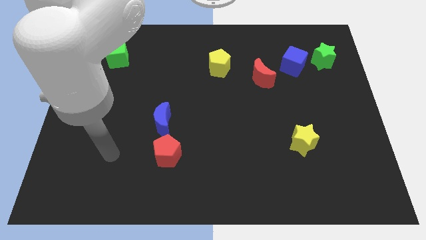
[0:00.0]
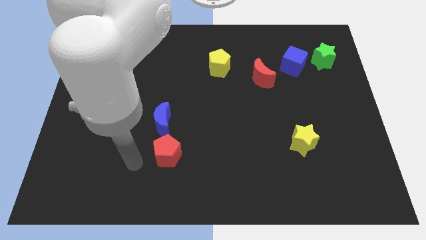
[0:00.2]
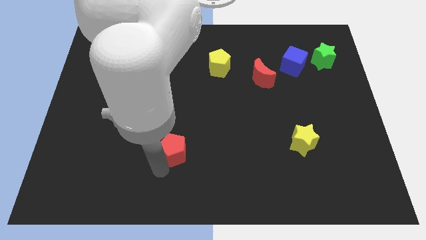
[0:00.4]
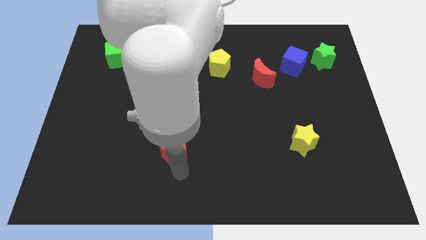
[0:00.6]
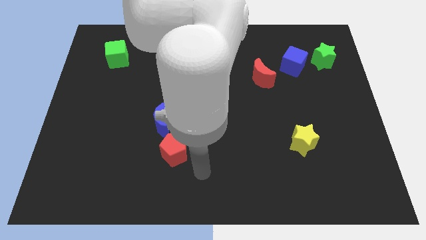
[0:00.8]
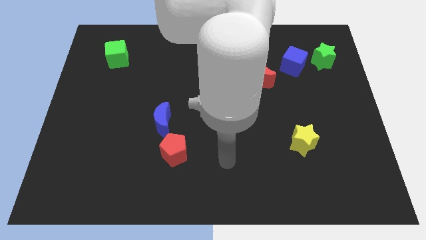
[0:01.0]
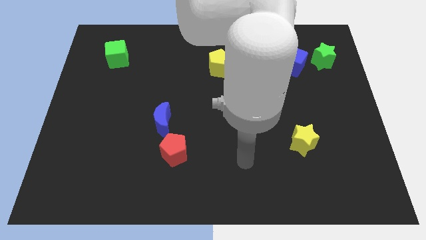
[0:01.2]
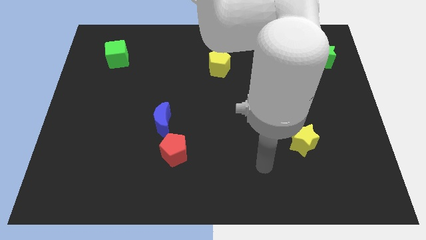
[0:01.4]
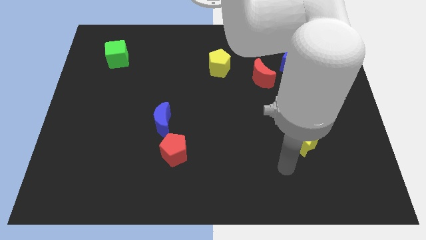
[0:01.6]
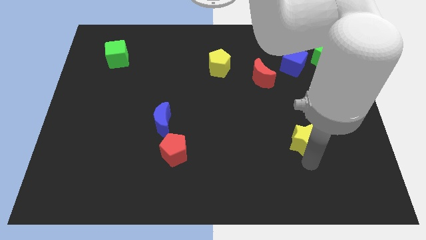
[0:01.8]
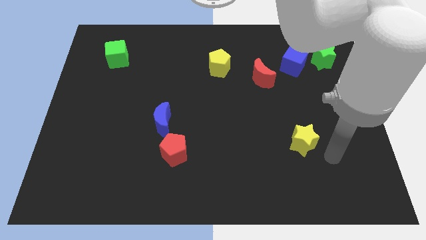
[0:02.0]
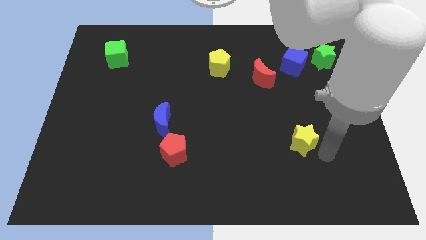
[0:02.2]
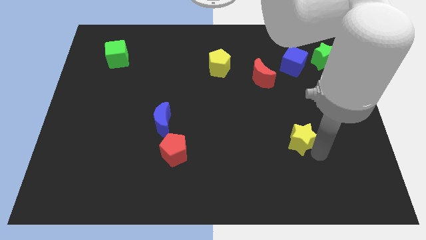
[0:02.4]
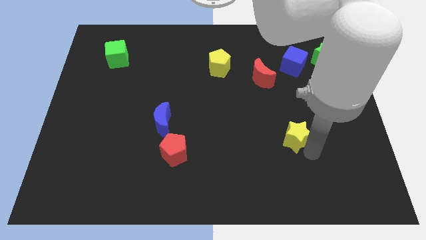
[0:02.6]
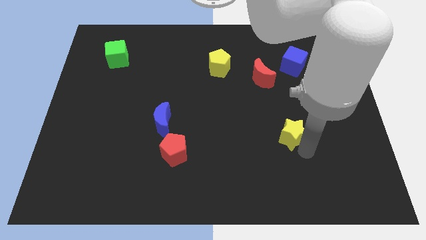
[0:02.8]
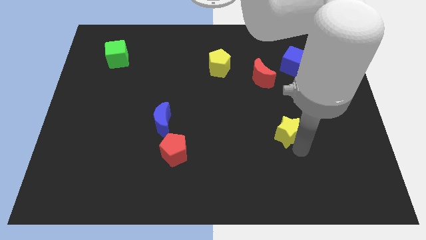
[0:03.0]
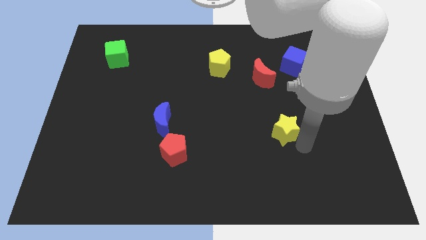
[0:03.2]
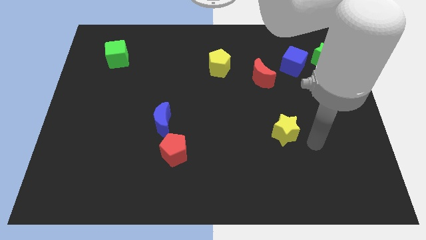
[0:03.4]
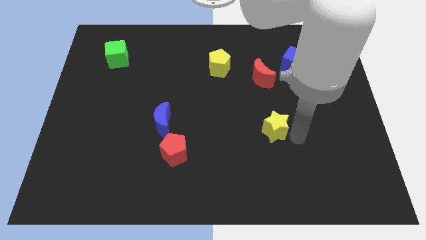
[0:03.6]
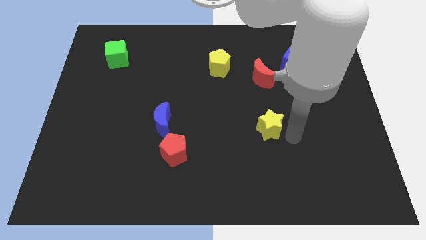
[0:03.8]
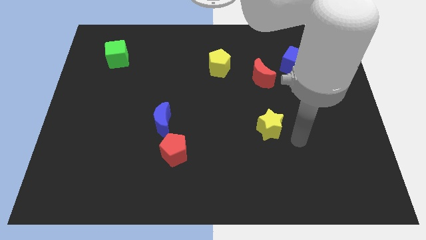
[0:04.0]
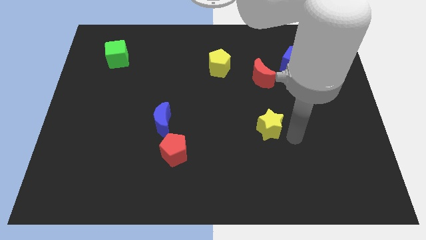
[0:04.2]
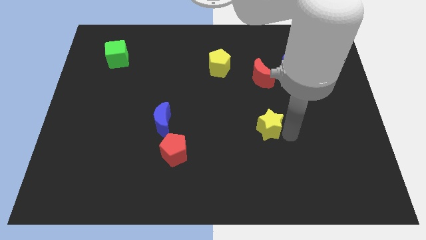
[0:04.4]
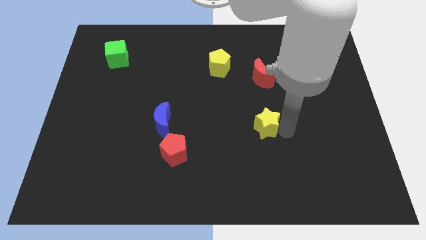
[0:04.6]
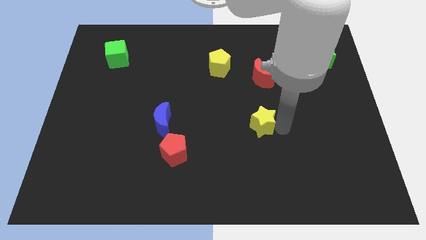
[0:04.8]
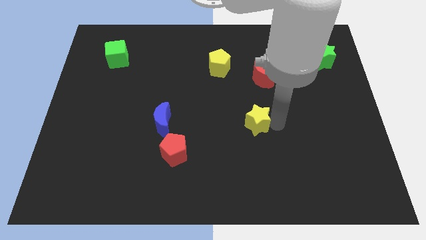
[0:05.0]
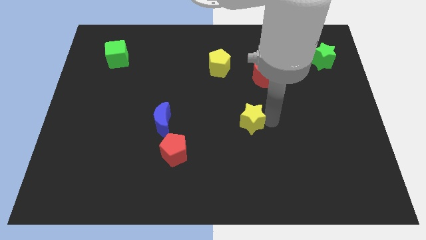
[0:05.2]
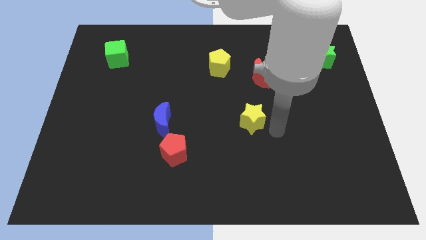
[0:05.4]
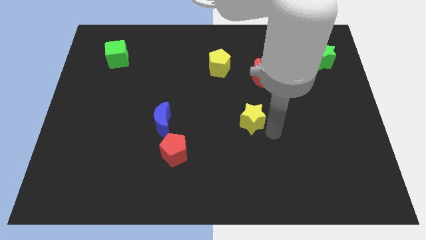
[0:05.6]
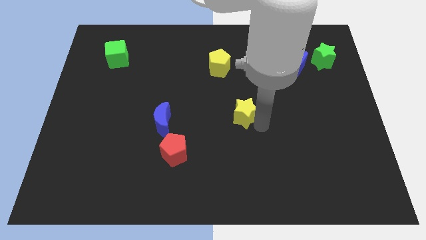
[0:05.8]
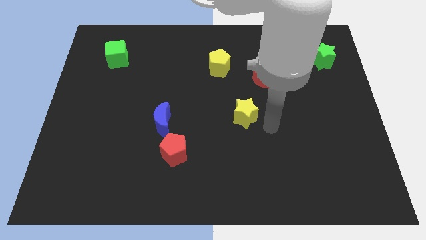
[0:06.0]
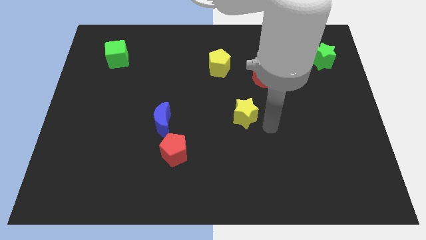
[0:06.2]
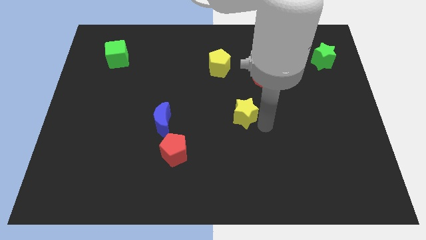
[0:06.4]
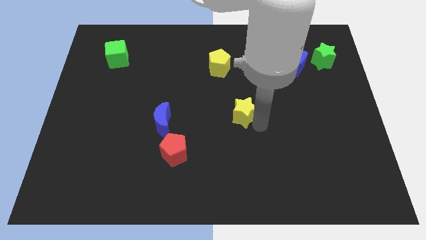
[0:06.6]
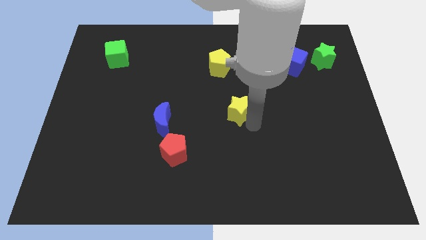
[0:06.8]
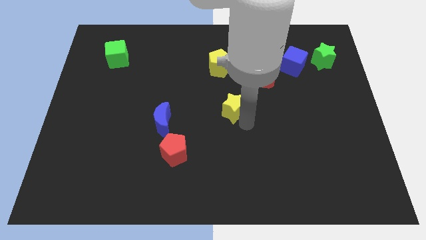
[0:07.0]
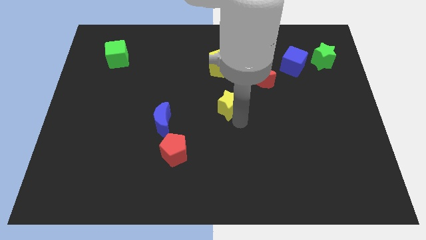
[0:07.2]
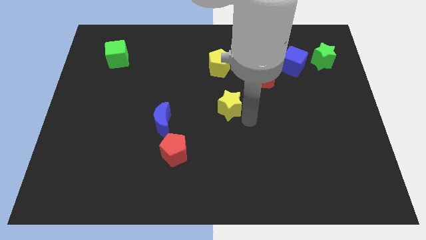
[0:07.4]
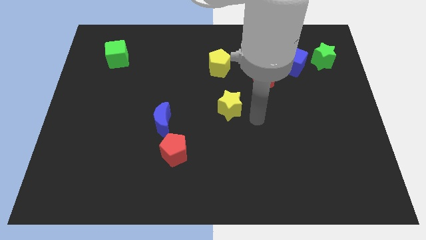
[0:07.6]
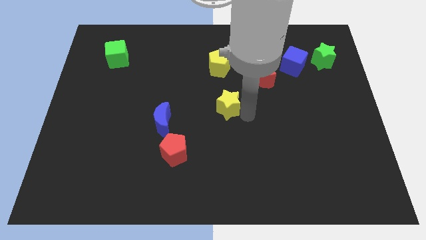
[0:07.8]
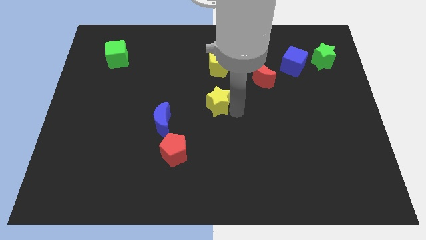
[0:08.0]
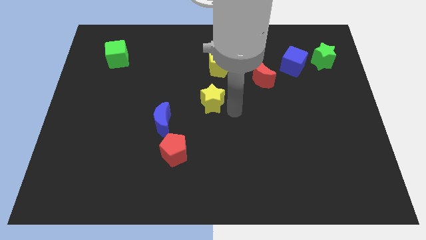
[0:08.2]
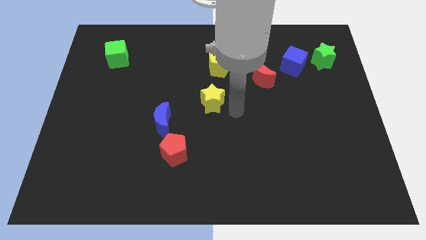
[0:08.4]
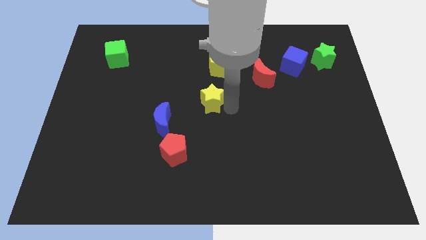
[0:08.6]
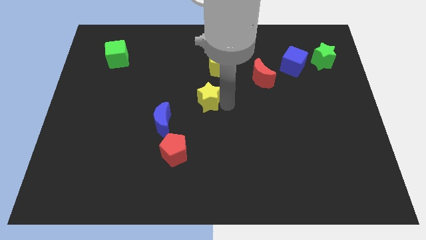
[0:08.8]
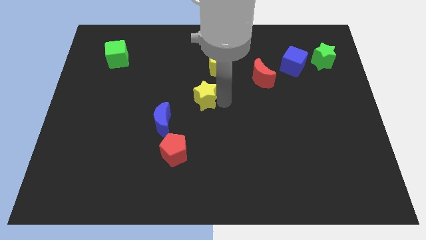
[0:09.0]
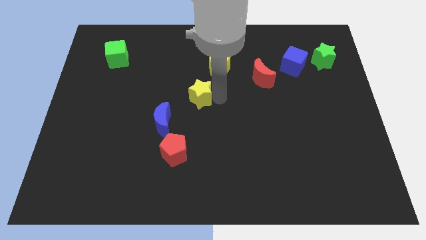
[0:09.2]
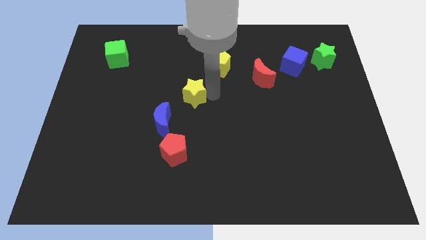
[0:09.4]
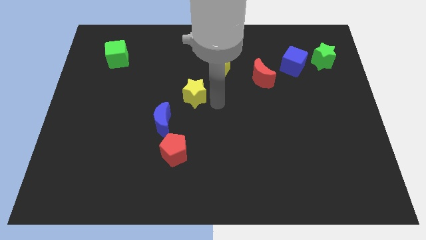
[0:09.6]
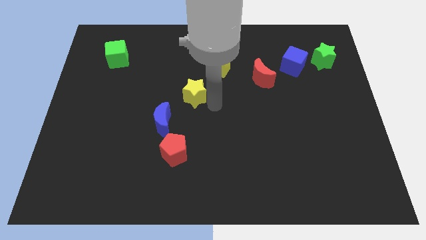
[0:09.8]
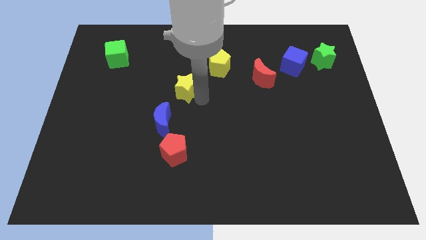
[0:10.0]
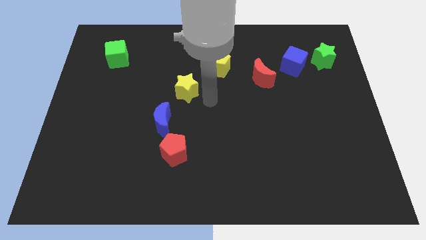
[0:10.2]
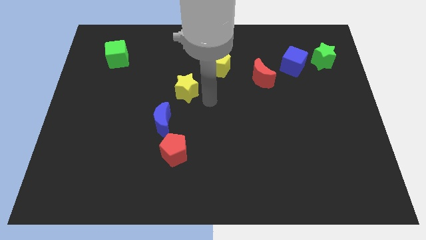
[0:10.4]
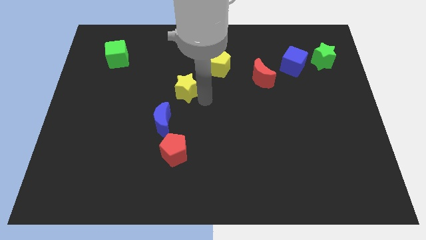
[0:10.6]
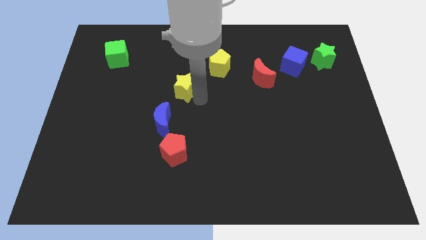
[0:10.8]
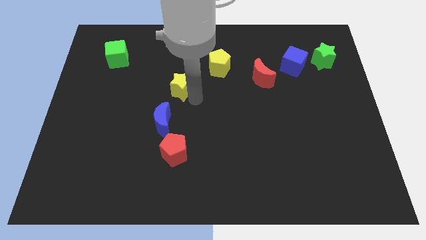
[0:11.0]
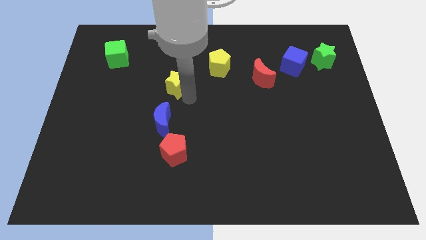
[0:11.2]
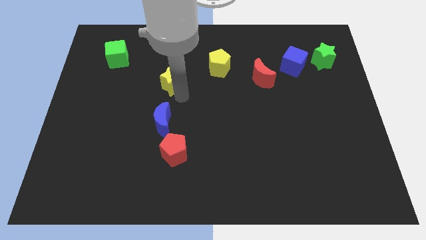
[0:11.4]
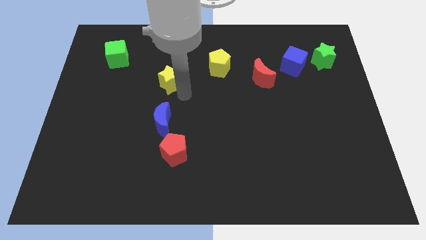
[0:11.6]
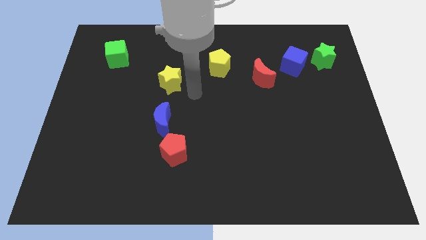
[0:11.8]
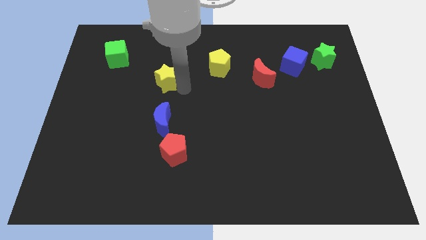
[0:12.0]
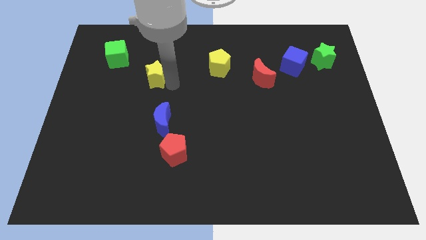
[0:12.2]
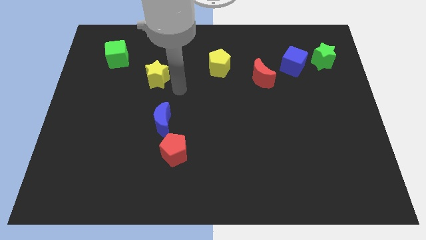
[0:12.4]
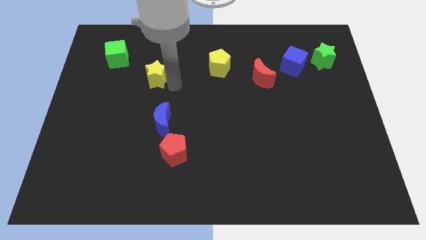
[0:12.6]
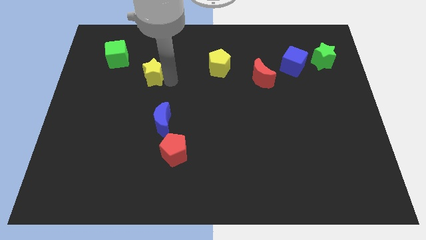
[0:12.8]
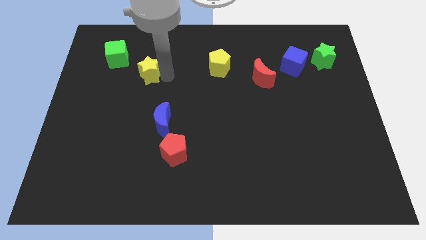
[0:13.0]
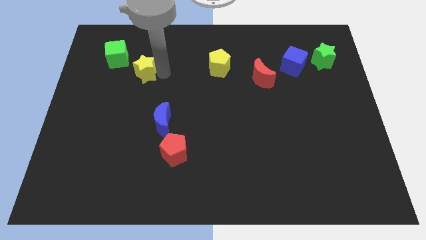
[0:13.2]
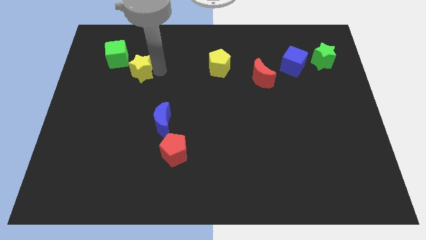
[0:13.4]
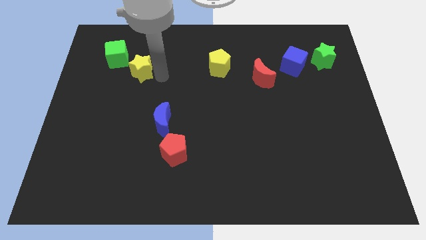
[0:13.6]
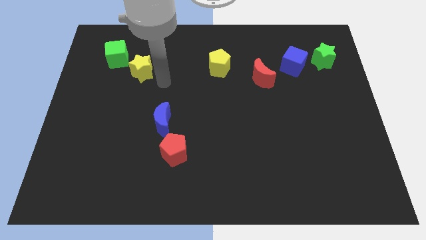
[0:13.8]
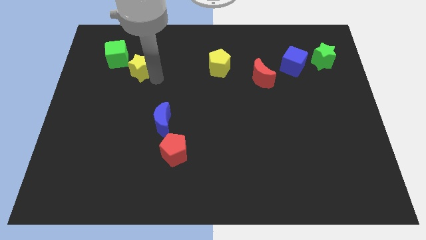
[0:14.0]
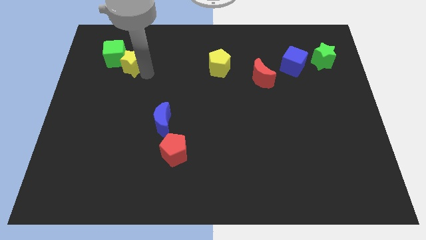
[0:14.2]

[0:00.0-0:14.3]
push the yellow star next to the green cube
